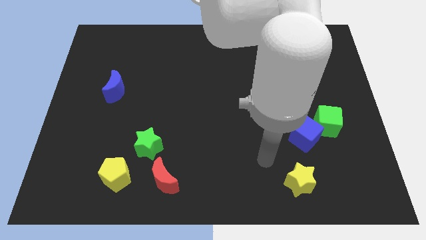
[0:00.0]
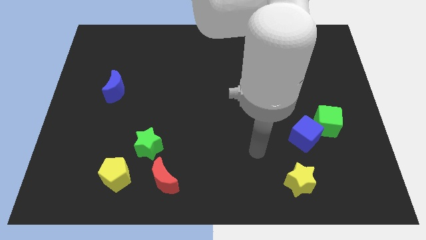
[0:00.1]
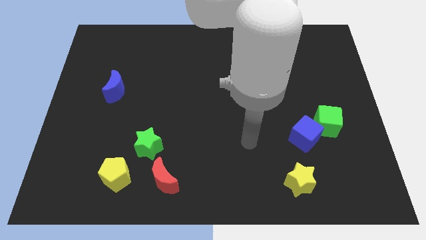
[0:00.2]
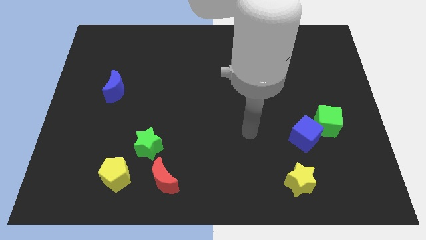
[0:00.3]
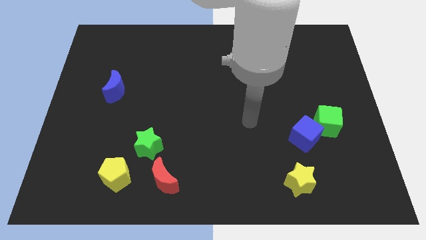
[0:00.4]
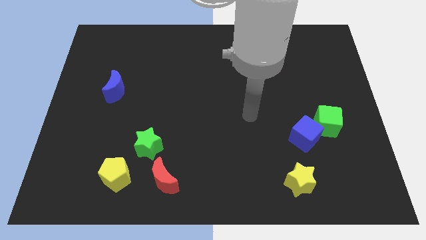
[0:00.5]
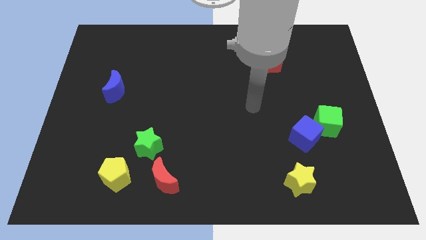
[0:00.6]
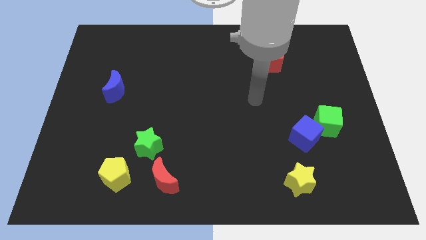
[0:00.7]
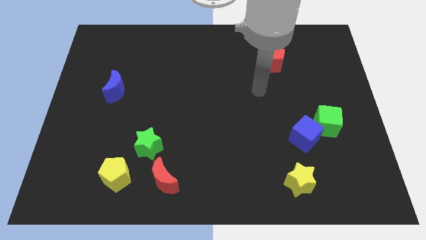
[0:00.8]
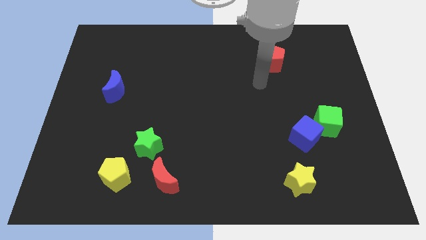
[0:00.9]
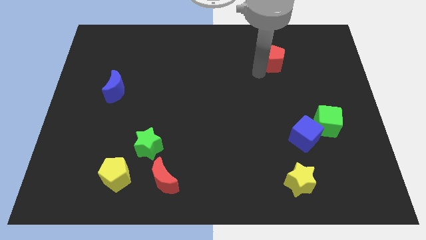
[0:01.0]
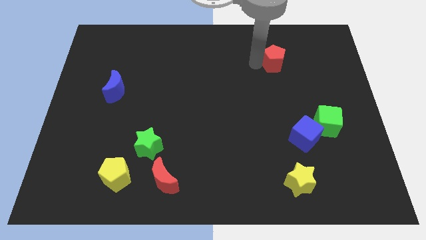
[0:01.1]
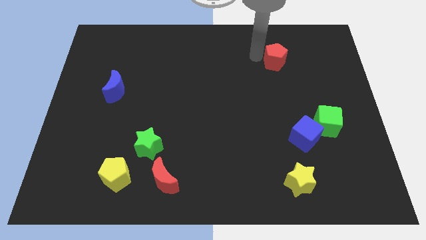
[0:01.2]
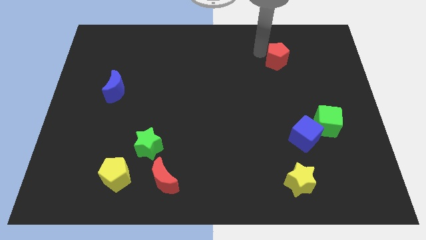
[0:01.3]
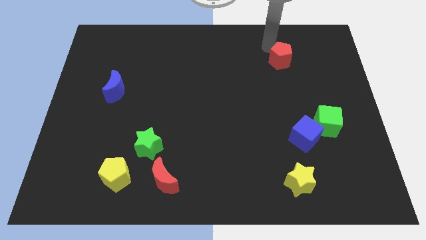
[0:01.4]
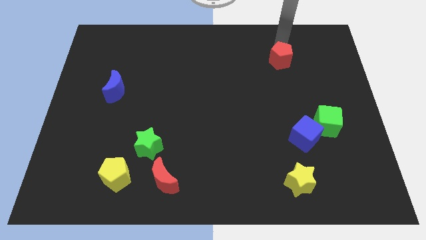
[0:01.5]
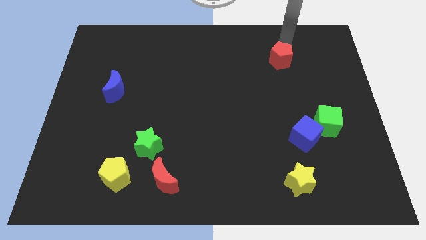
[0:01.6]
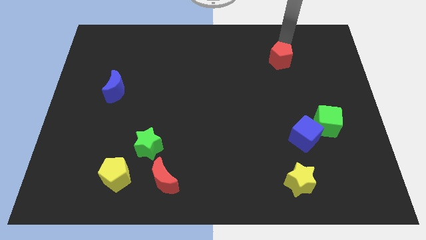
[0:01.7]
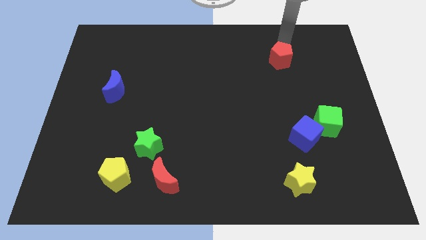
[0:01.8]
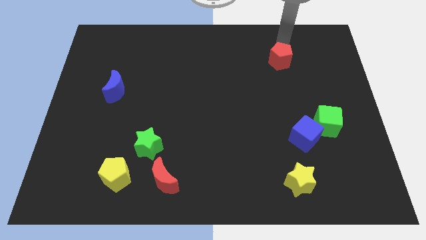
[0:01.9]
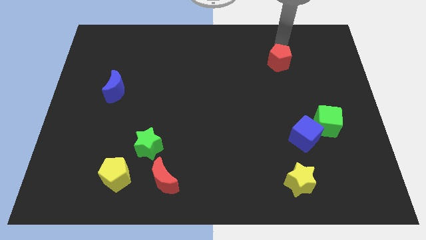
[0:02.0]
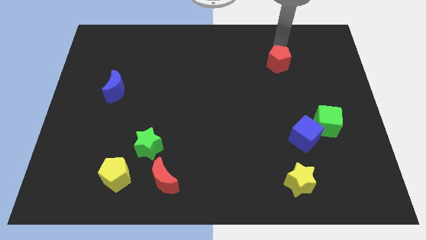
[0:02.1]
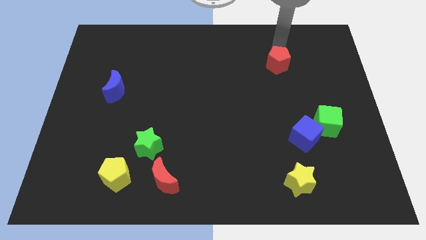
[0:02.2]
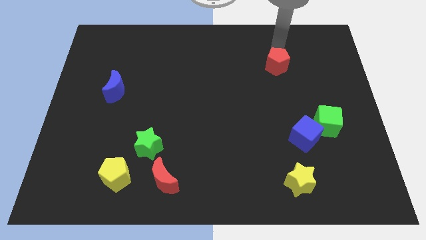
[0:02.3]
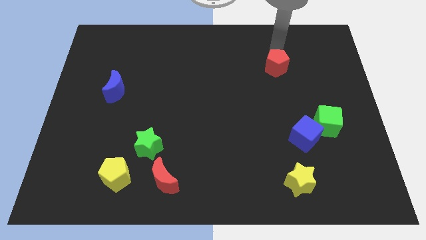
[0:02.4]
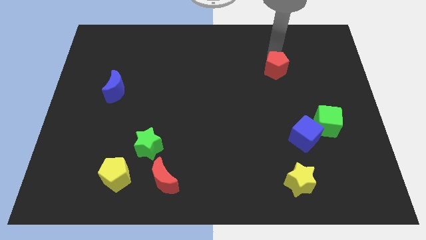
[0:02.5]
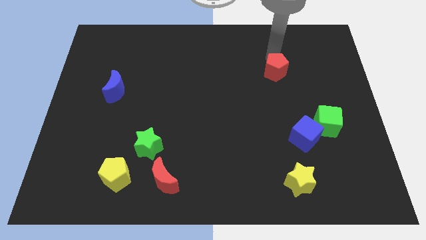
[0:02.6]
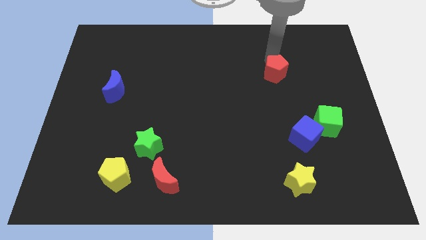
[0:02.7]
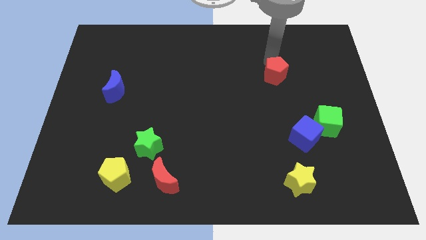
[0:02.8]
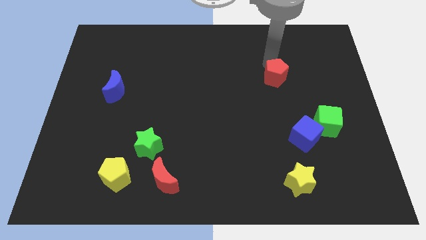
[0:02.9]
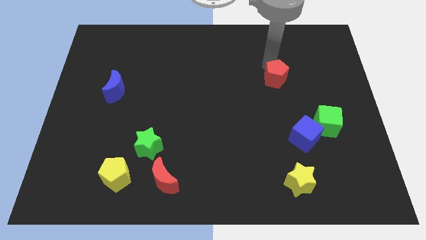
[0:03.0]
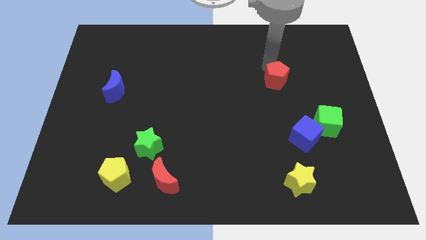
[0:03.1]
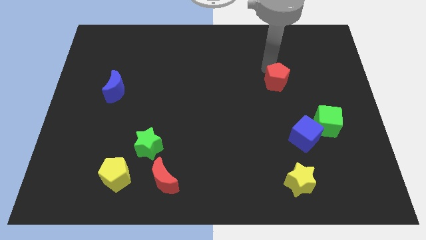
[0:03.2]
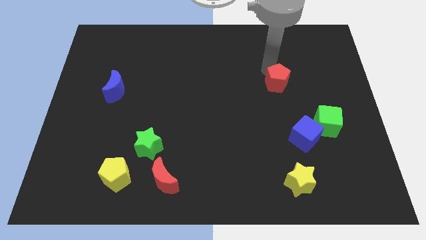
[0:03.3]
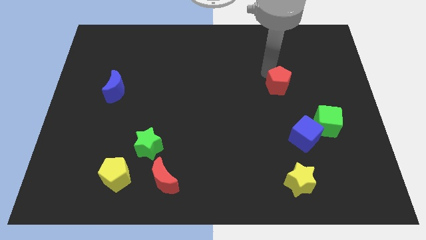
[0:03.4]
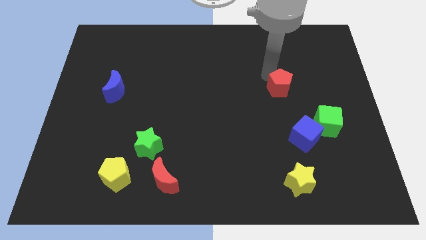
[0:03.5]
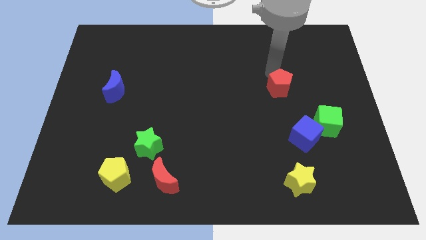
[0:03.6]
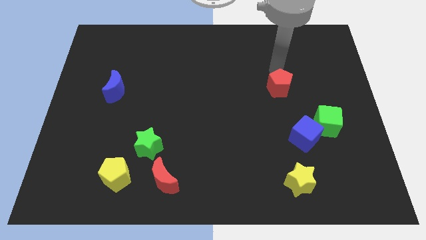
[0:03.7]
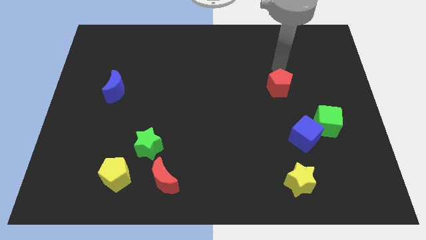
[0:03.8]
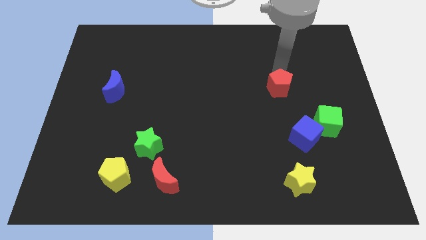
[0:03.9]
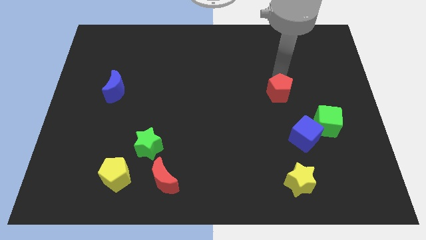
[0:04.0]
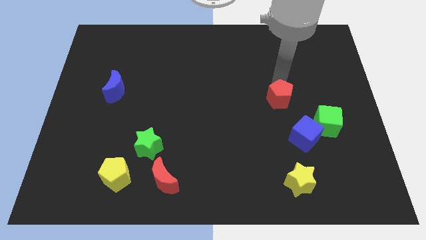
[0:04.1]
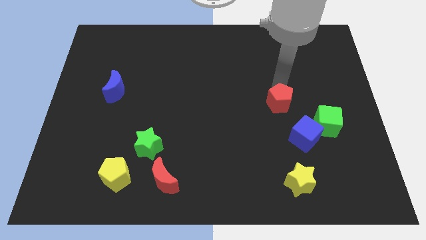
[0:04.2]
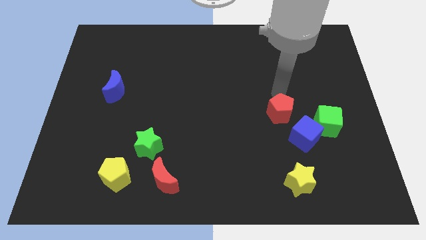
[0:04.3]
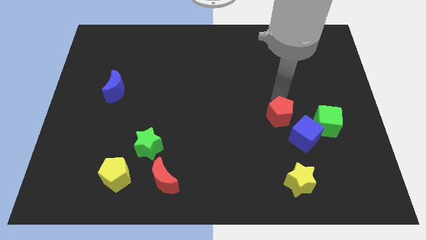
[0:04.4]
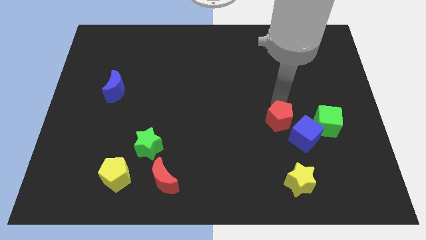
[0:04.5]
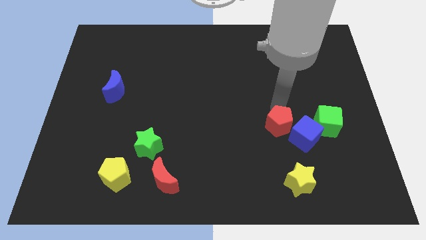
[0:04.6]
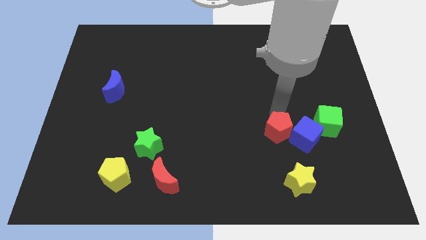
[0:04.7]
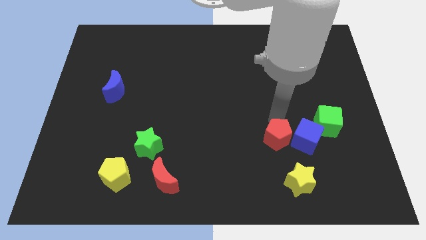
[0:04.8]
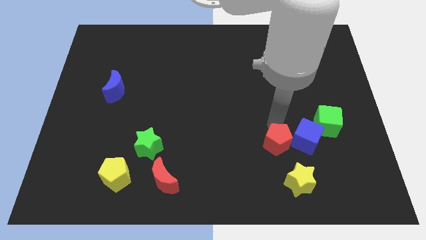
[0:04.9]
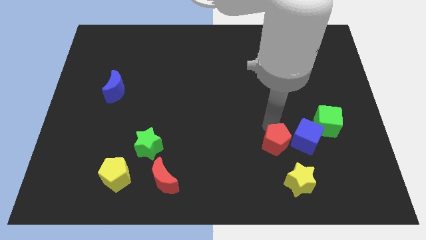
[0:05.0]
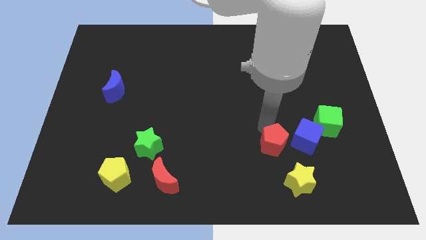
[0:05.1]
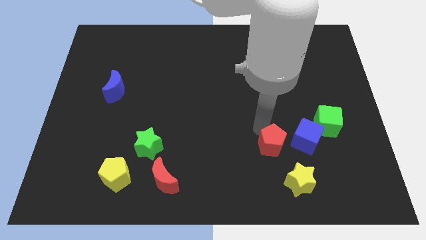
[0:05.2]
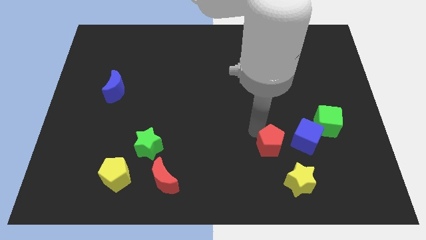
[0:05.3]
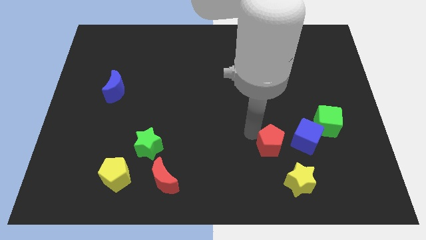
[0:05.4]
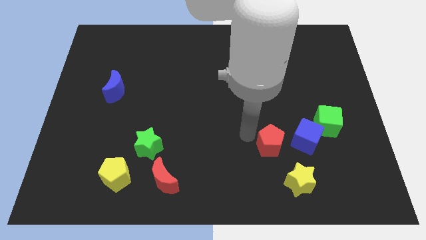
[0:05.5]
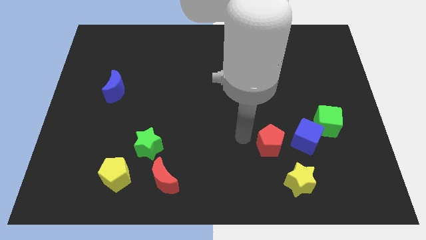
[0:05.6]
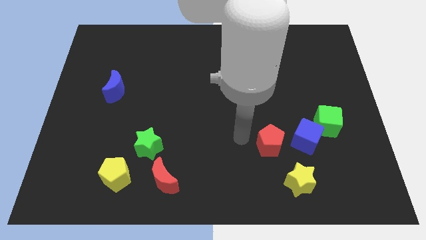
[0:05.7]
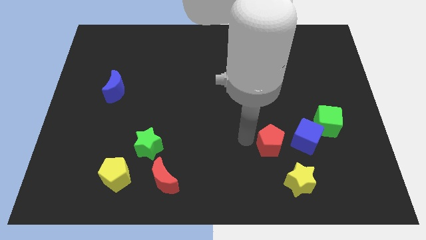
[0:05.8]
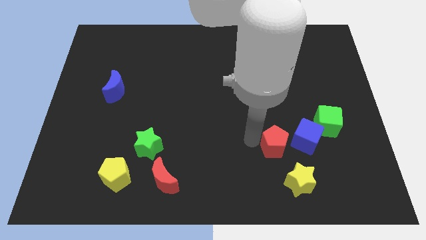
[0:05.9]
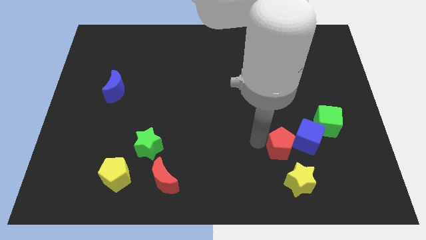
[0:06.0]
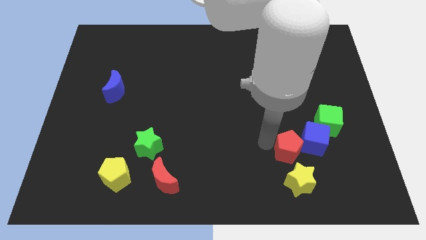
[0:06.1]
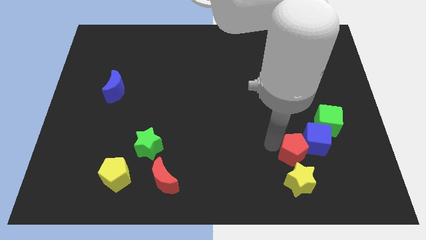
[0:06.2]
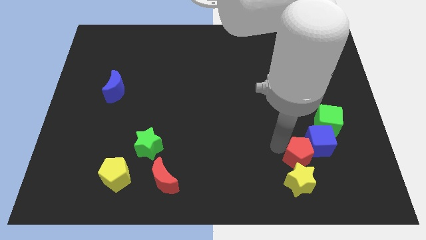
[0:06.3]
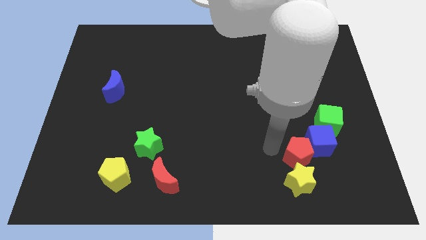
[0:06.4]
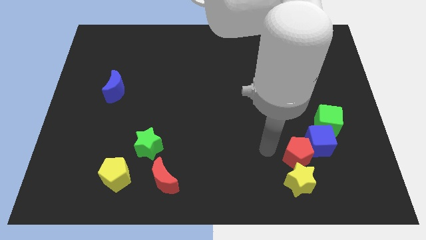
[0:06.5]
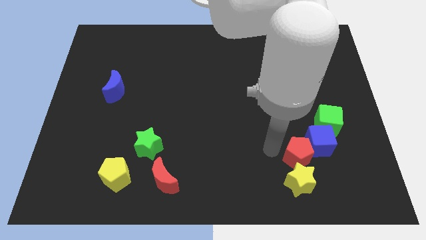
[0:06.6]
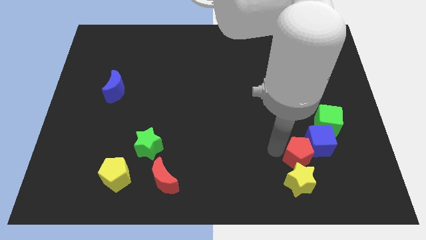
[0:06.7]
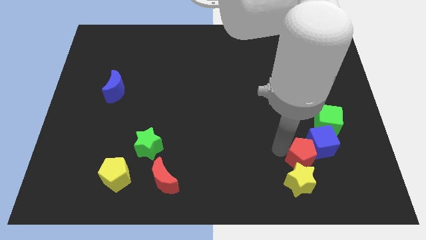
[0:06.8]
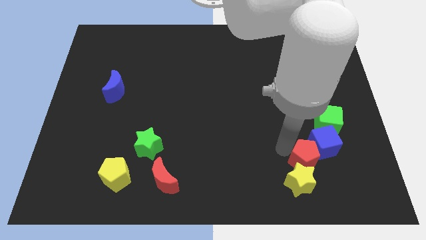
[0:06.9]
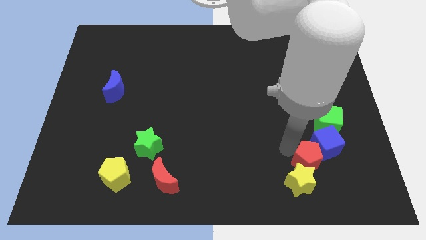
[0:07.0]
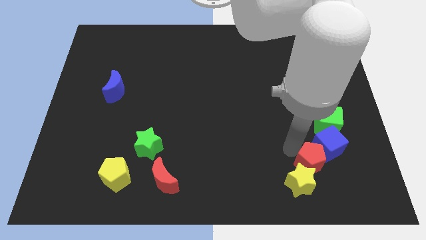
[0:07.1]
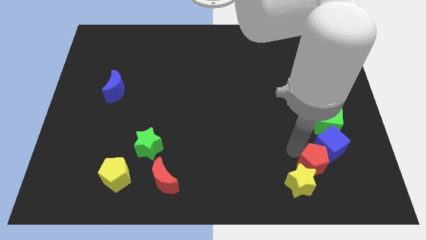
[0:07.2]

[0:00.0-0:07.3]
move the red pentagon to the bottom of the green cube
